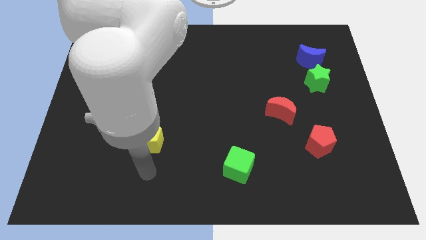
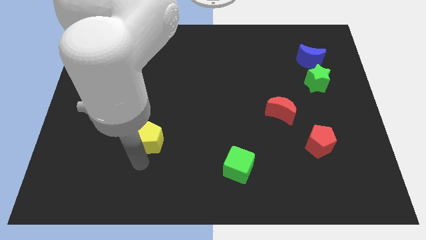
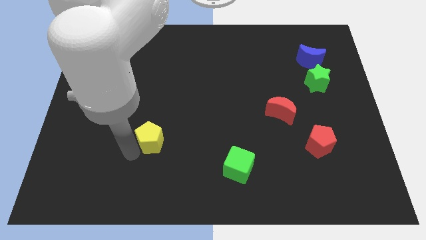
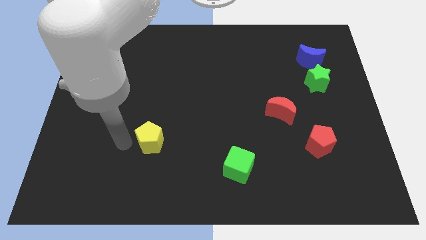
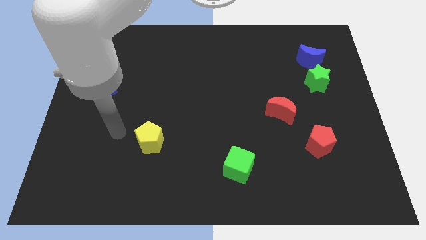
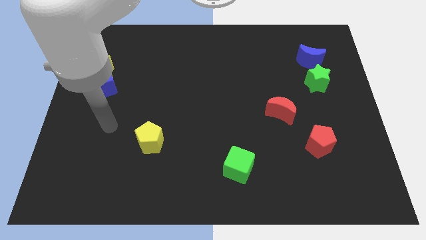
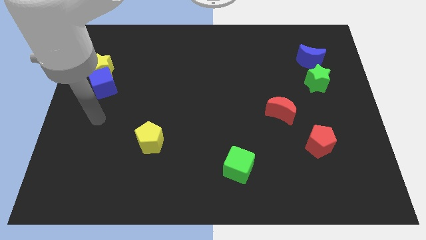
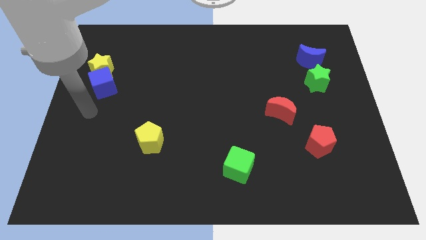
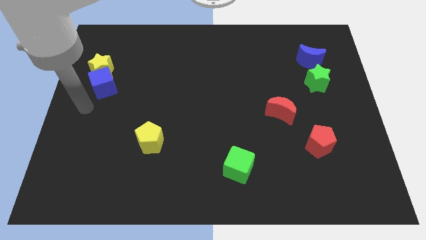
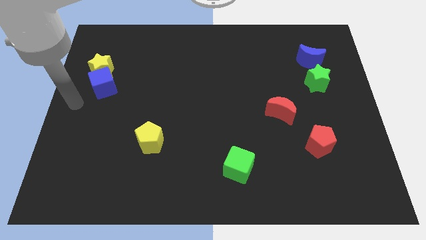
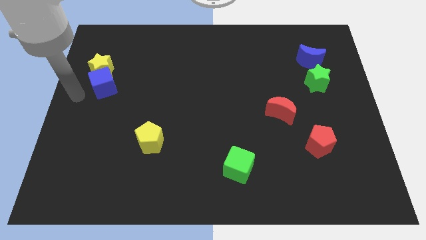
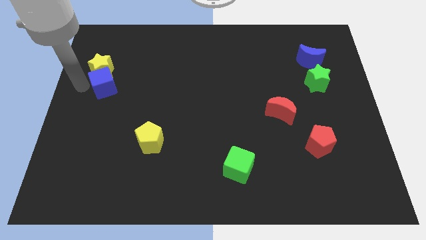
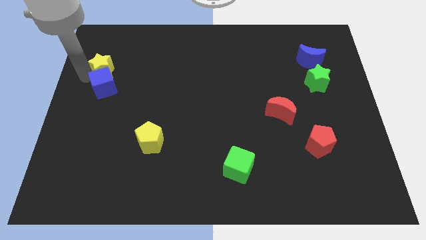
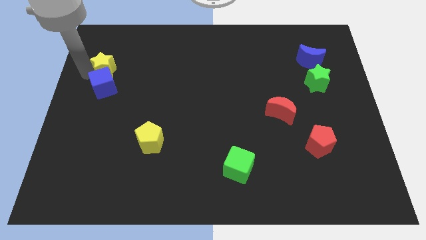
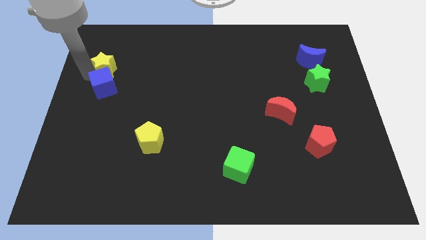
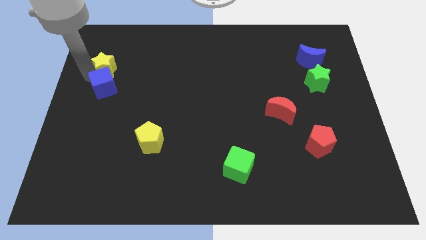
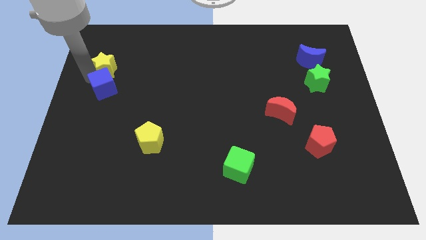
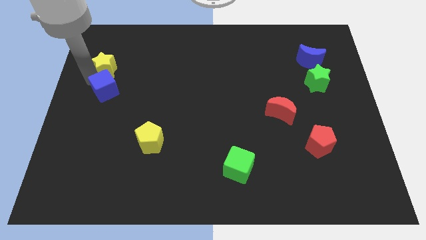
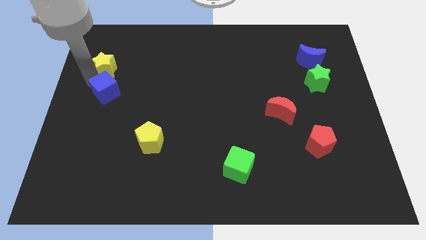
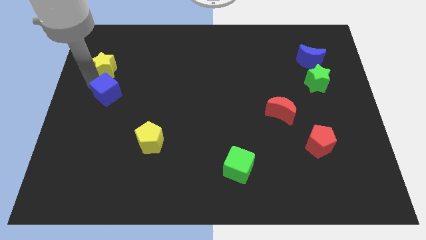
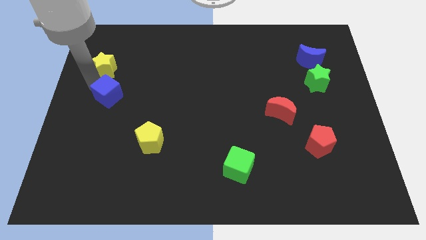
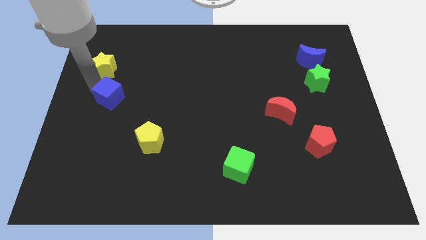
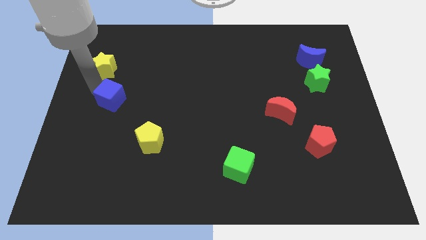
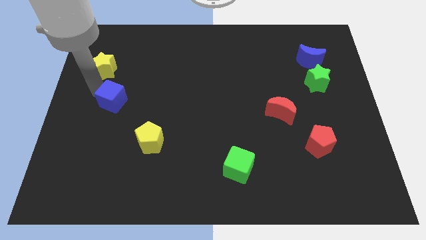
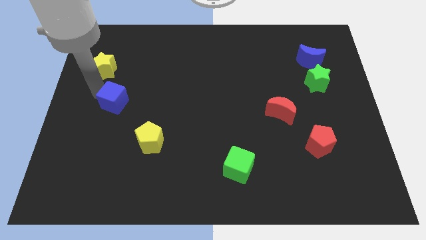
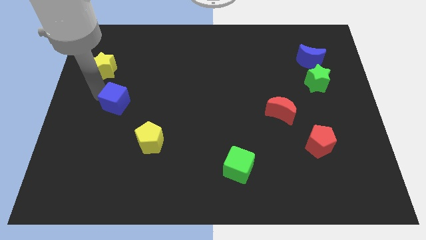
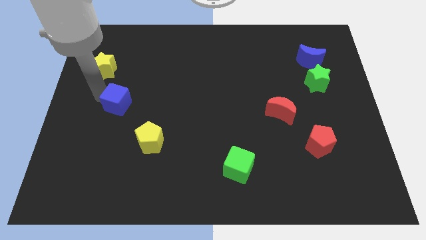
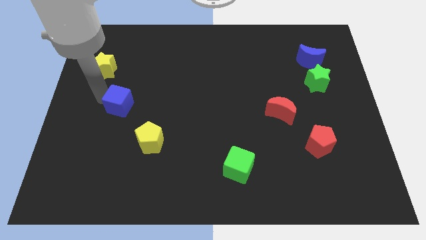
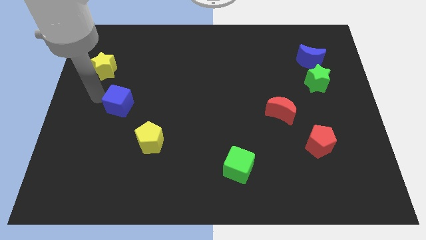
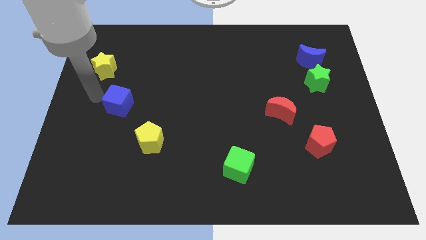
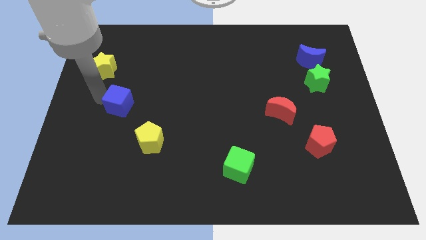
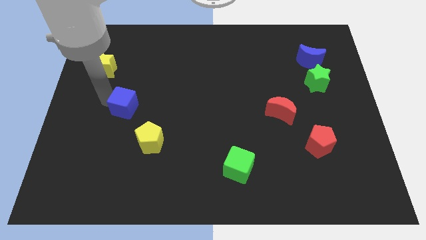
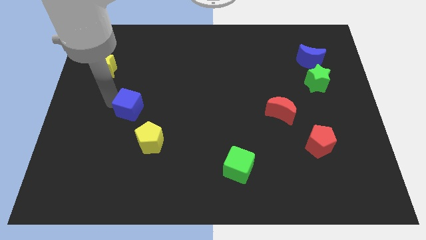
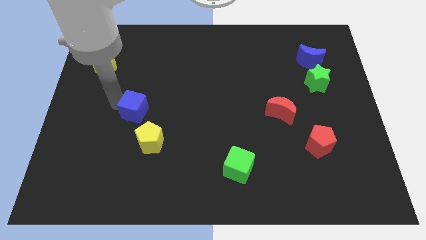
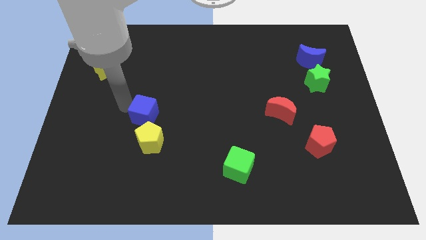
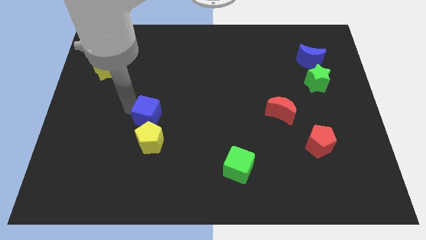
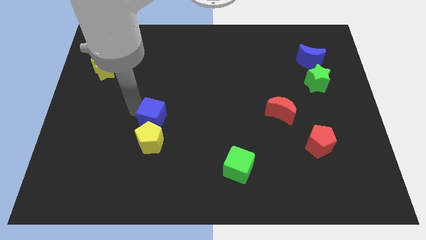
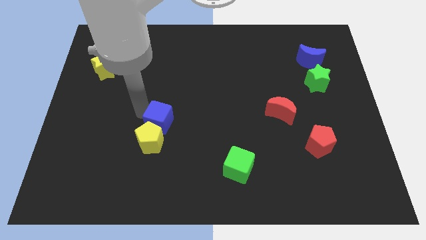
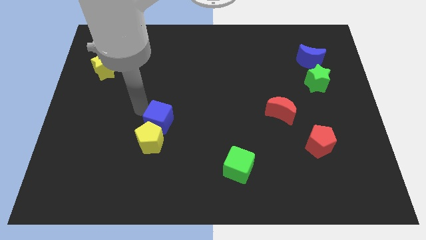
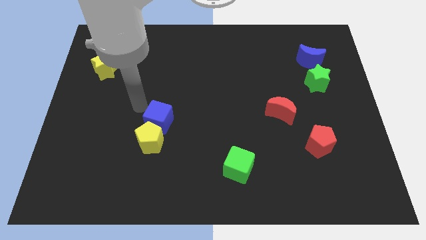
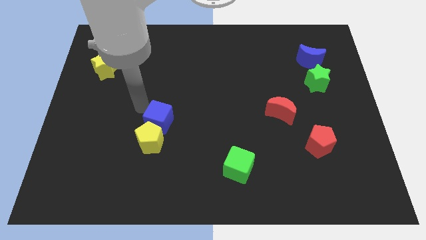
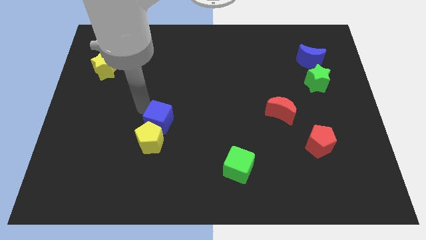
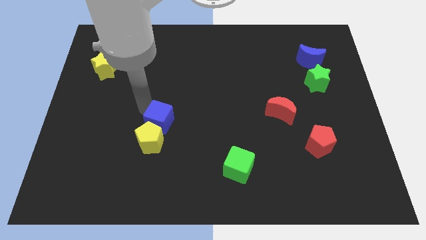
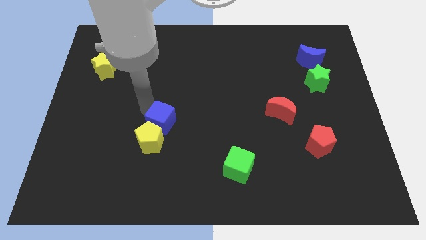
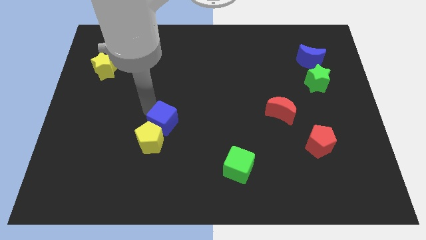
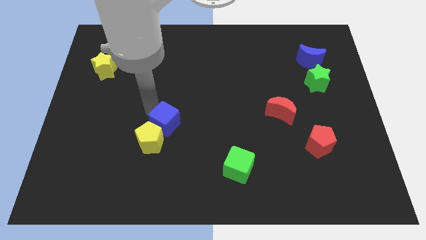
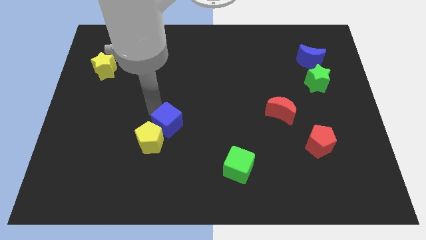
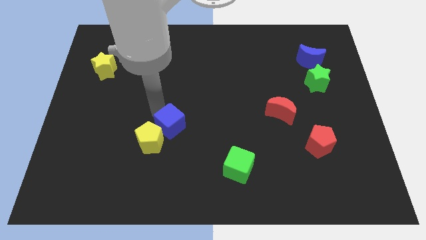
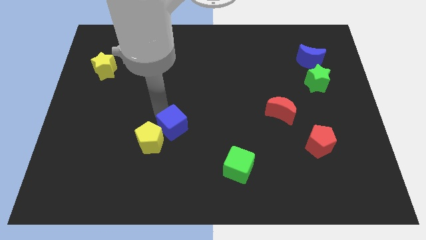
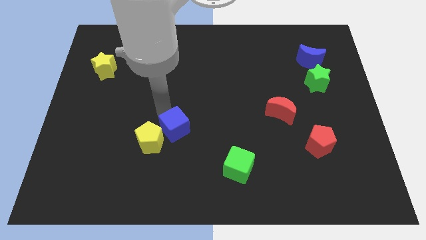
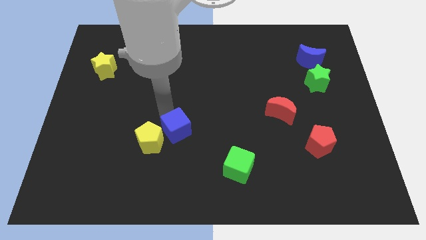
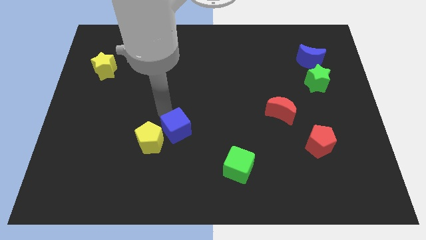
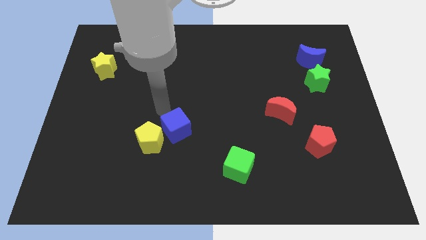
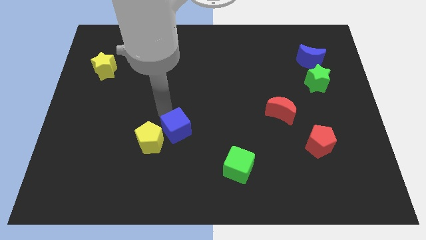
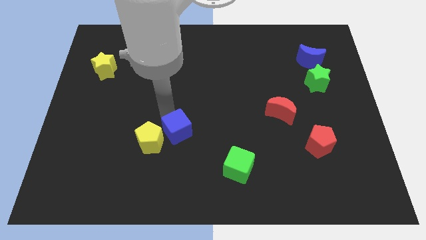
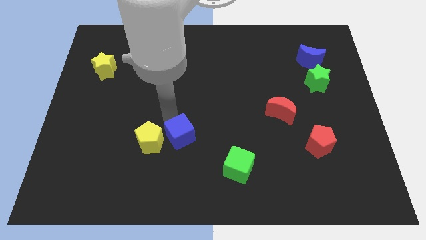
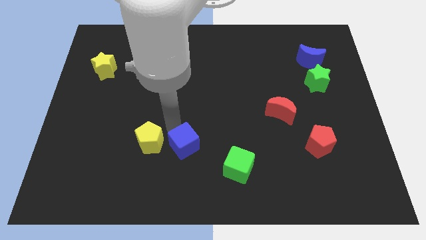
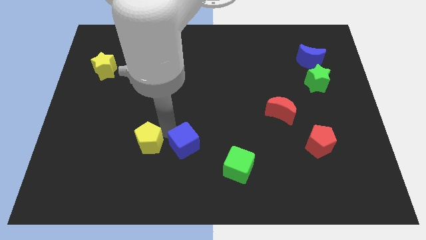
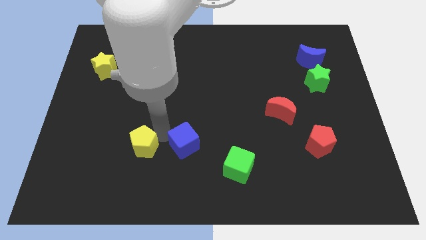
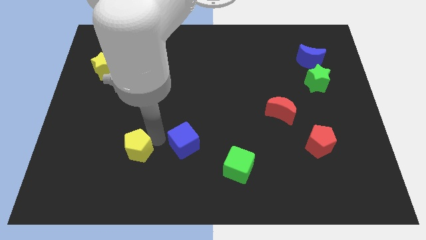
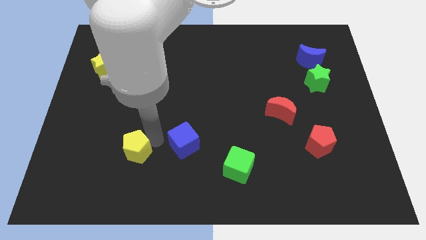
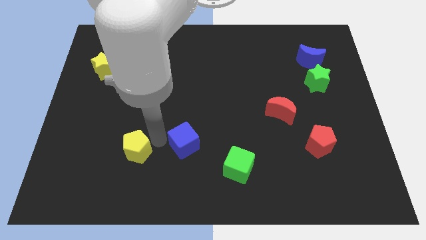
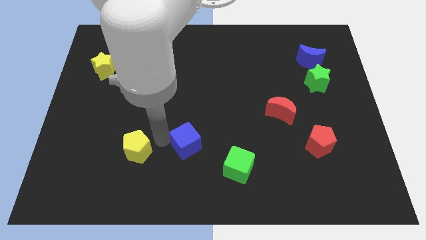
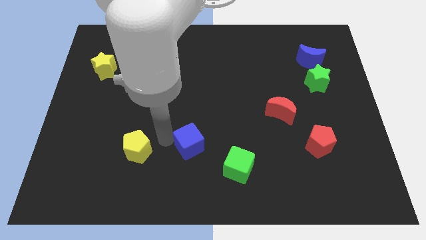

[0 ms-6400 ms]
move the blue cube to the top left of the green cube

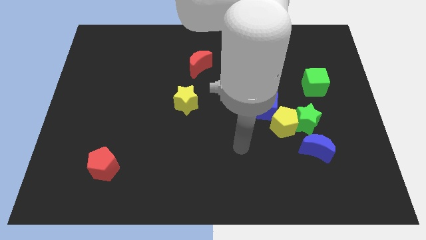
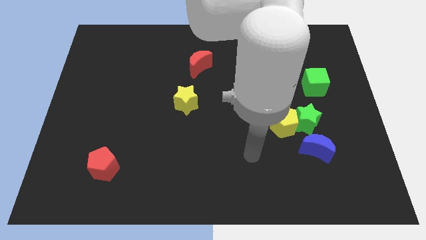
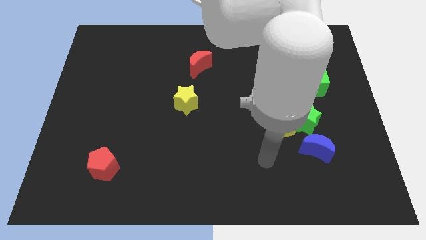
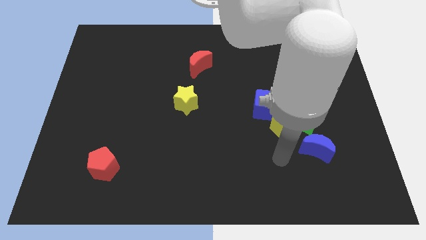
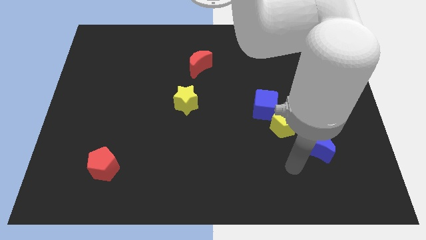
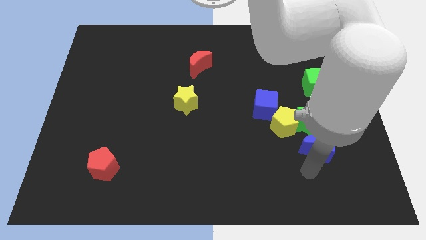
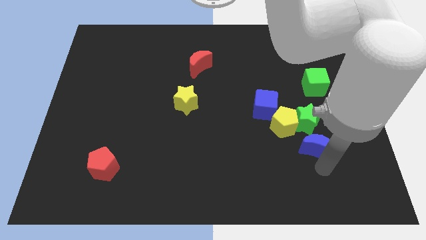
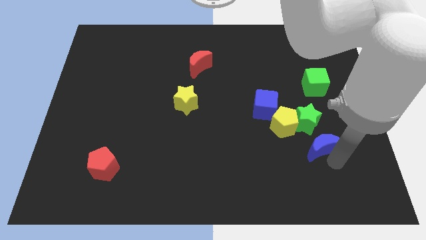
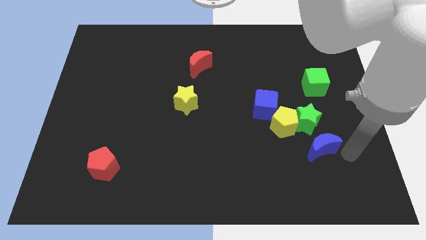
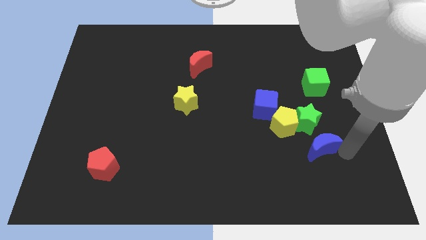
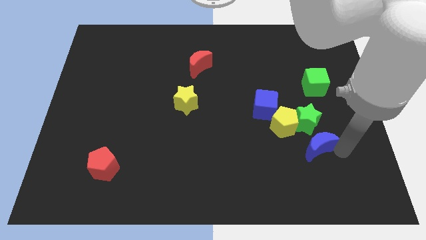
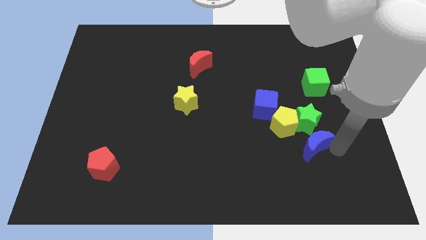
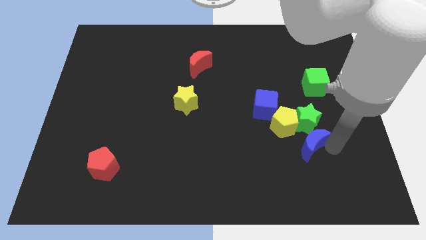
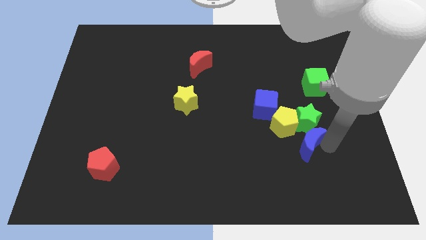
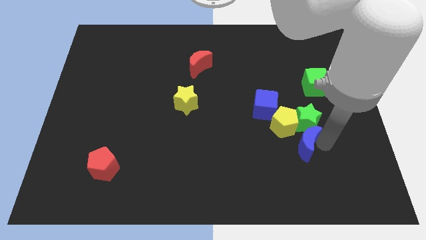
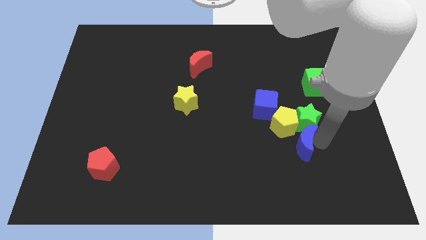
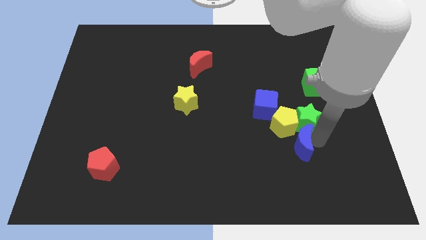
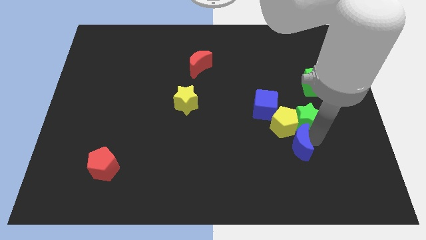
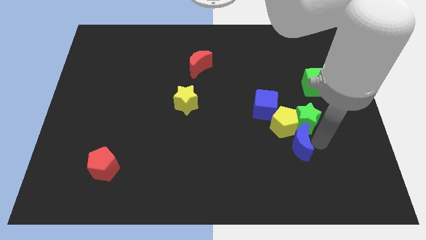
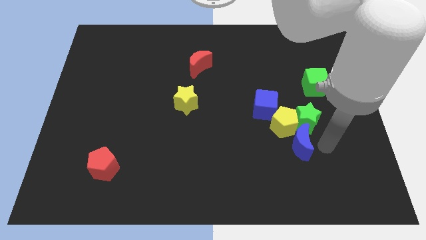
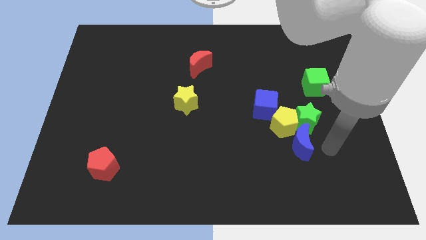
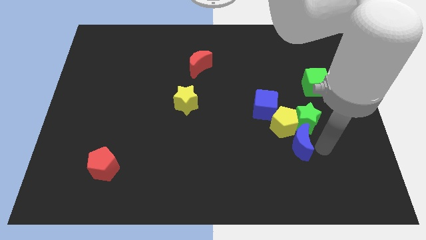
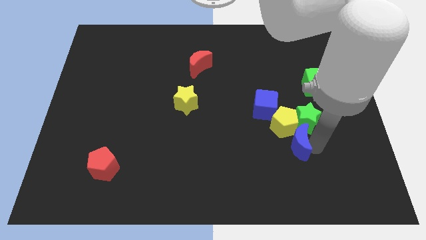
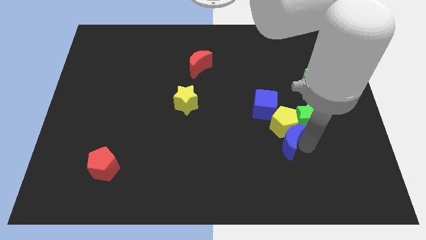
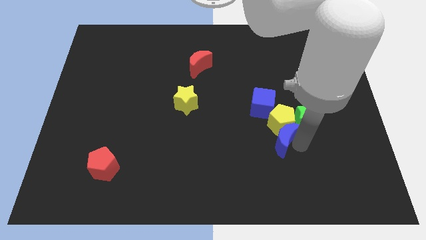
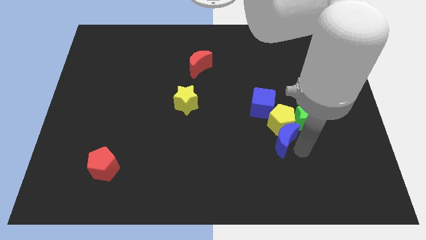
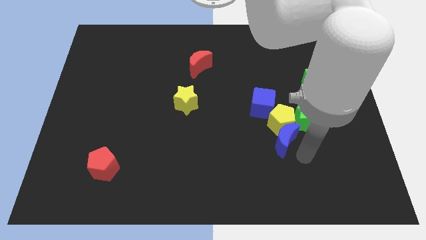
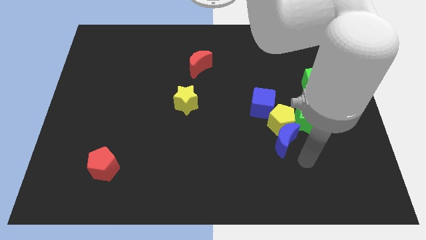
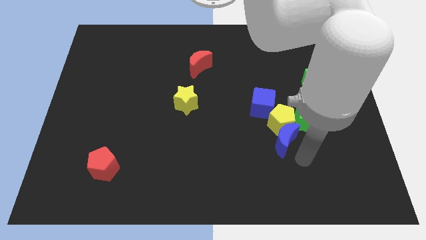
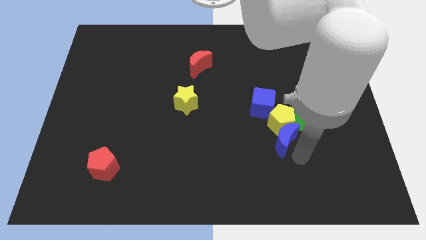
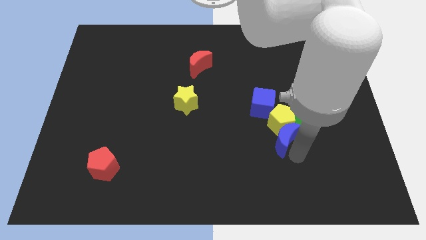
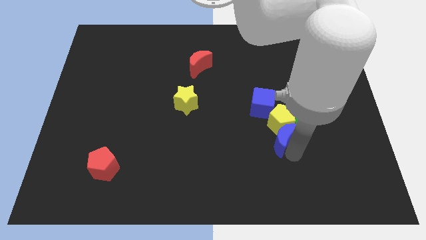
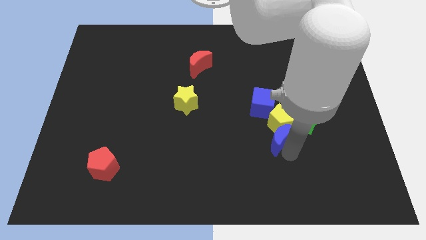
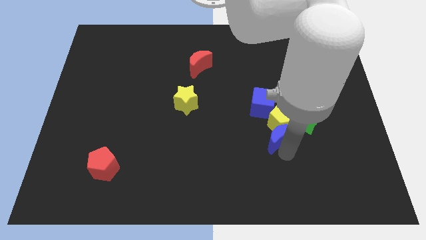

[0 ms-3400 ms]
push the blue moon just left of the green star
